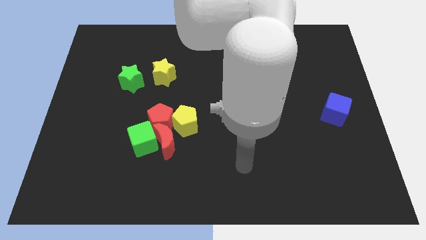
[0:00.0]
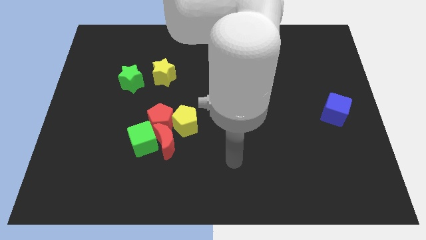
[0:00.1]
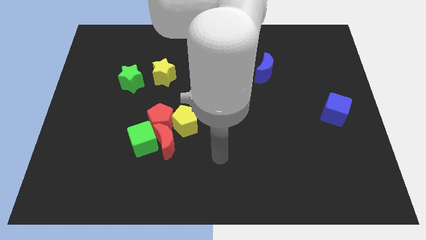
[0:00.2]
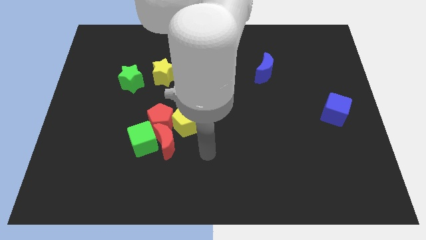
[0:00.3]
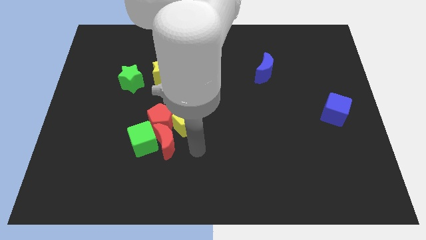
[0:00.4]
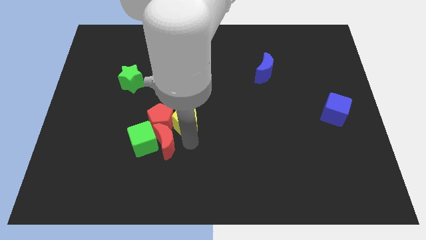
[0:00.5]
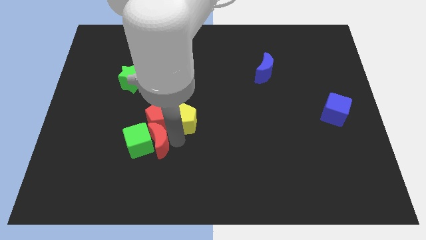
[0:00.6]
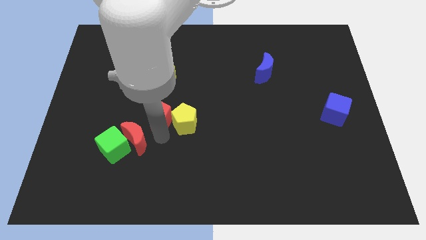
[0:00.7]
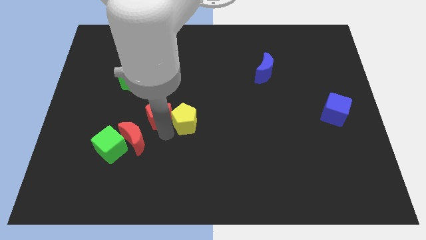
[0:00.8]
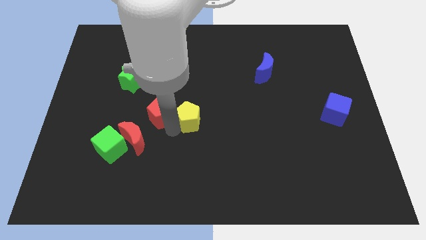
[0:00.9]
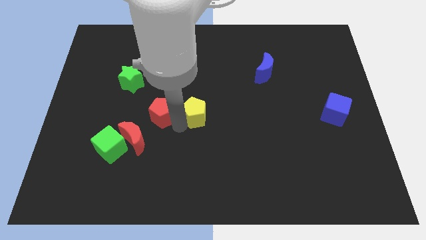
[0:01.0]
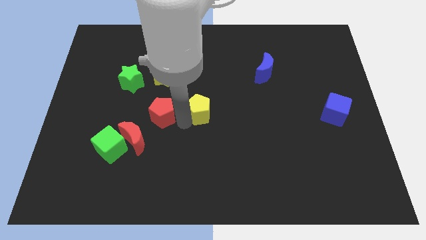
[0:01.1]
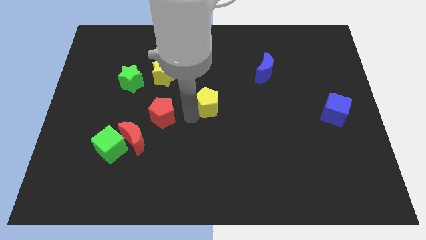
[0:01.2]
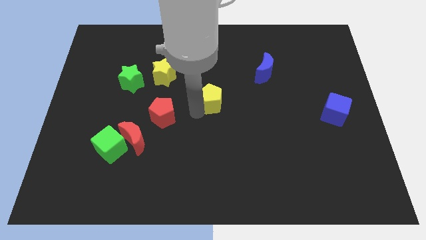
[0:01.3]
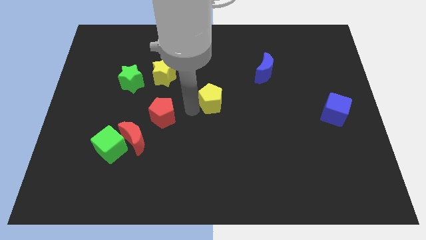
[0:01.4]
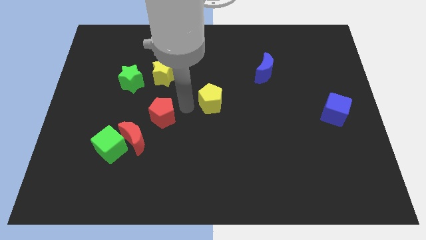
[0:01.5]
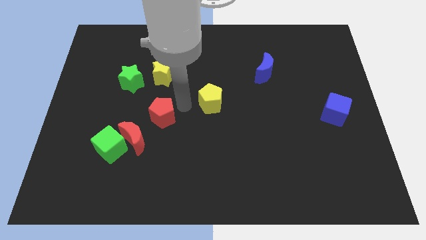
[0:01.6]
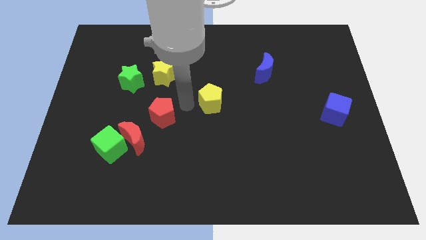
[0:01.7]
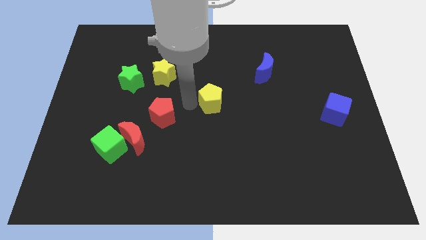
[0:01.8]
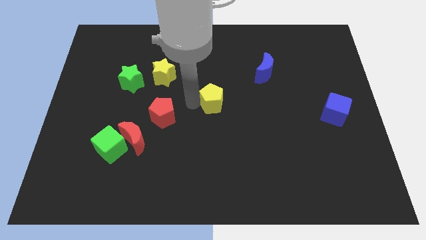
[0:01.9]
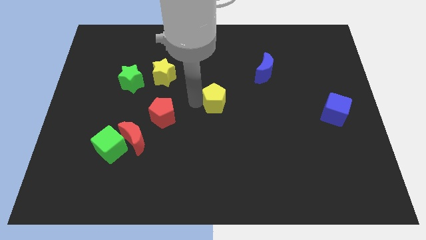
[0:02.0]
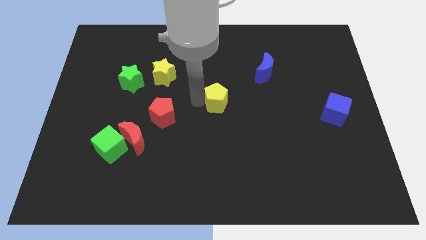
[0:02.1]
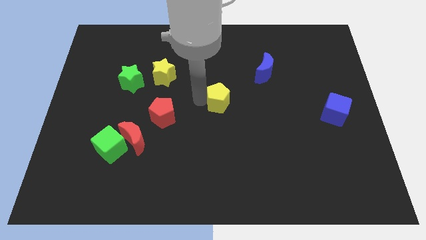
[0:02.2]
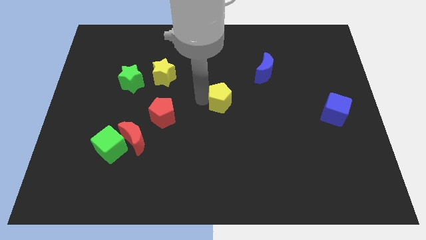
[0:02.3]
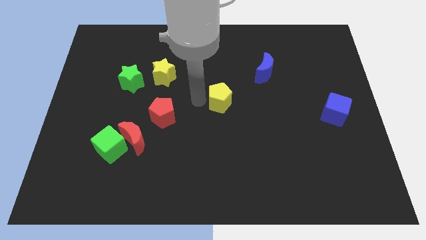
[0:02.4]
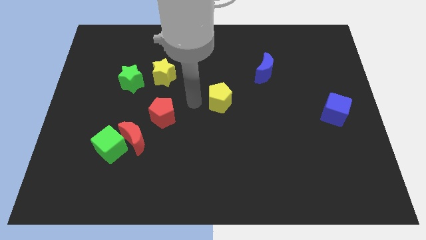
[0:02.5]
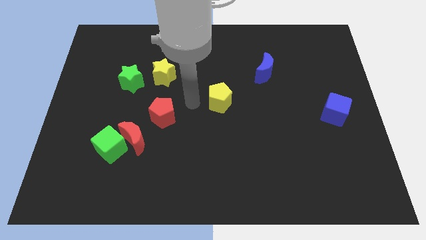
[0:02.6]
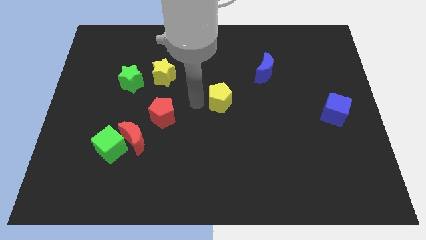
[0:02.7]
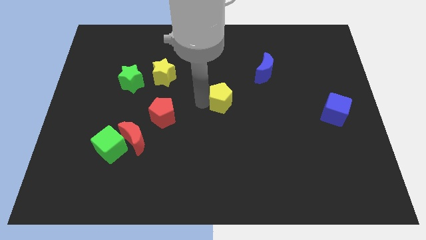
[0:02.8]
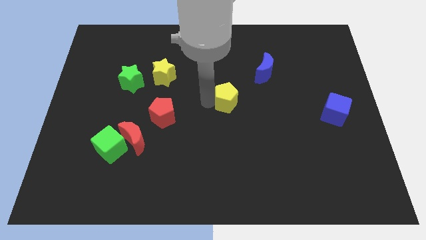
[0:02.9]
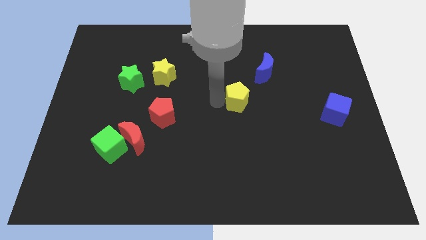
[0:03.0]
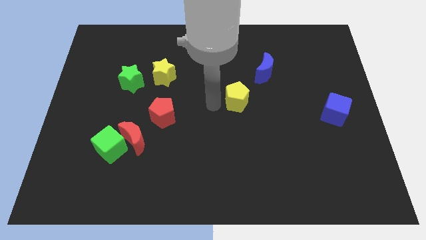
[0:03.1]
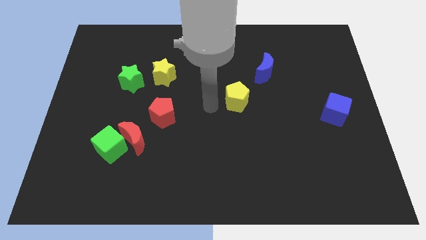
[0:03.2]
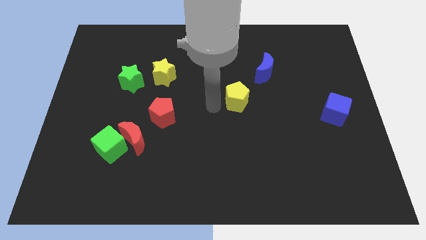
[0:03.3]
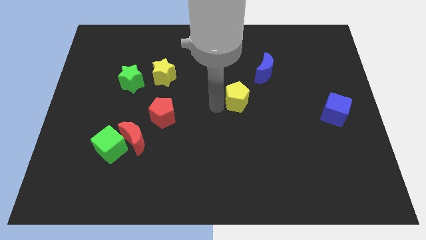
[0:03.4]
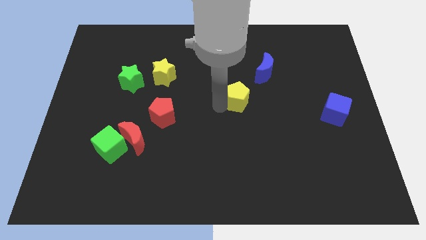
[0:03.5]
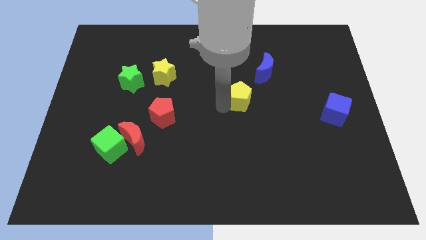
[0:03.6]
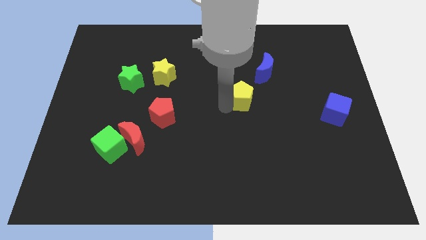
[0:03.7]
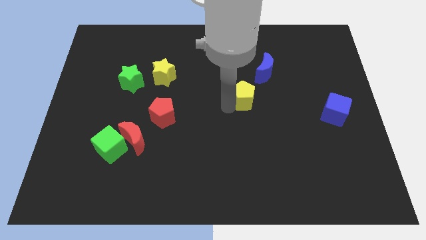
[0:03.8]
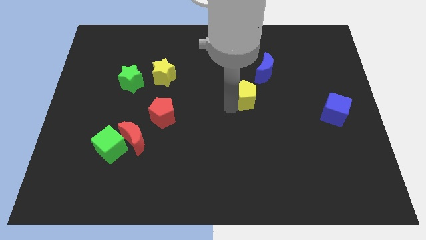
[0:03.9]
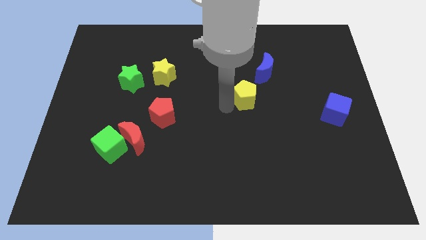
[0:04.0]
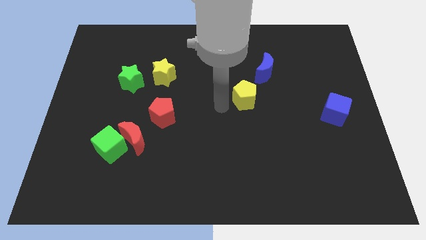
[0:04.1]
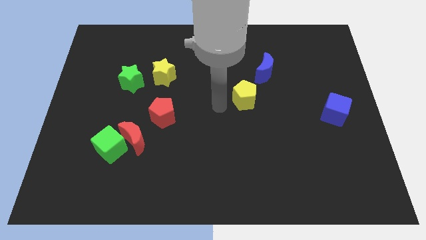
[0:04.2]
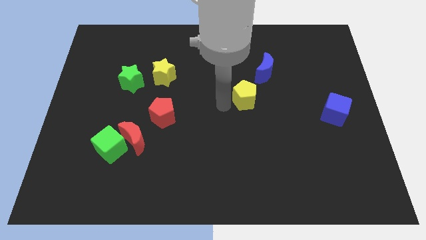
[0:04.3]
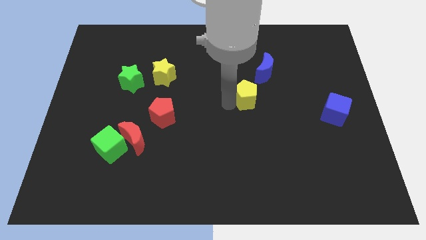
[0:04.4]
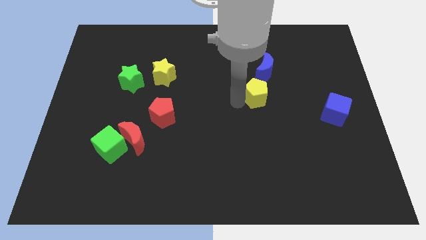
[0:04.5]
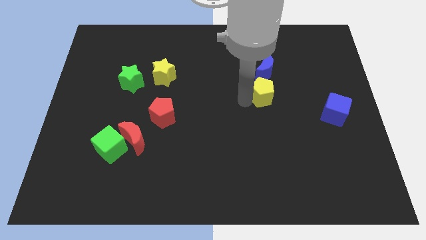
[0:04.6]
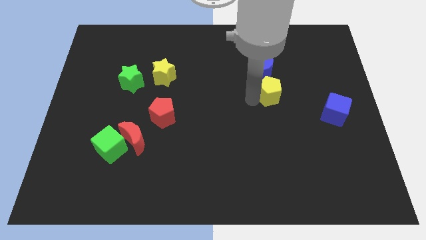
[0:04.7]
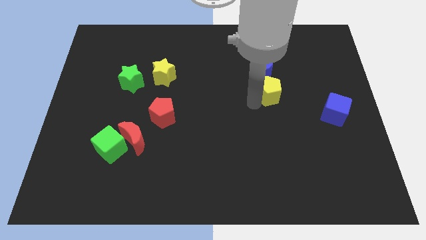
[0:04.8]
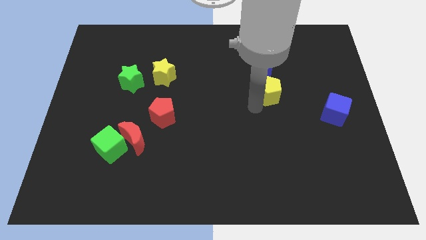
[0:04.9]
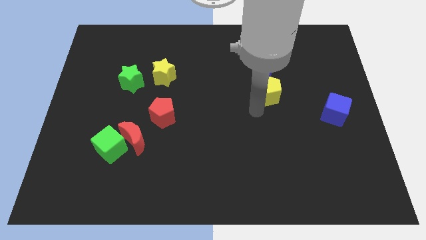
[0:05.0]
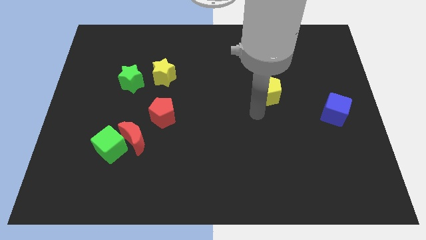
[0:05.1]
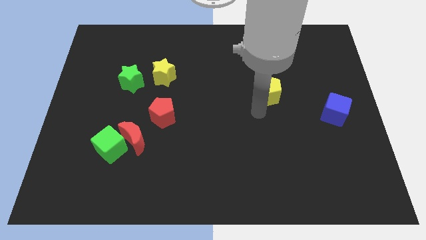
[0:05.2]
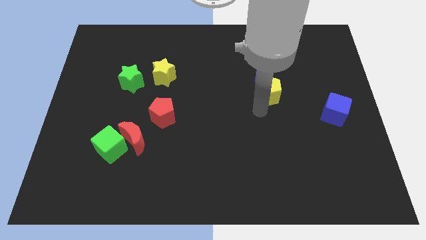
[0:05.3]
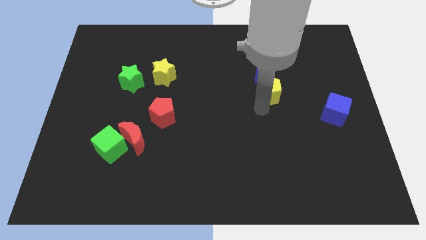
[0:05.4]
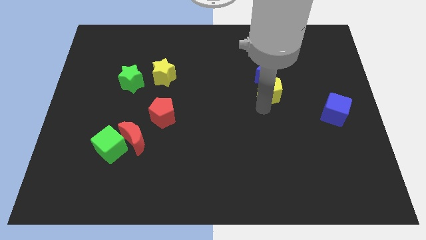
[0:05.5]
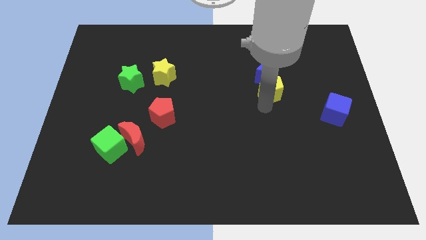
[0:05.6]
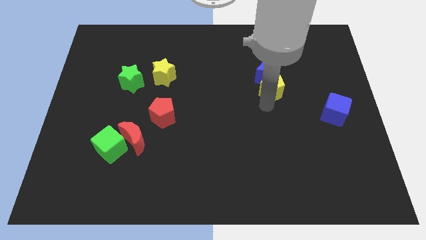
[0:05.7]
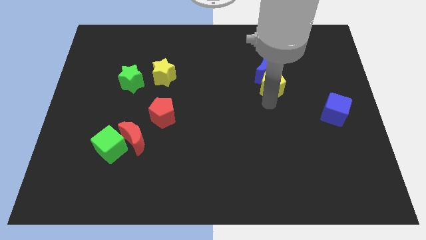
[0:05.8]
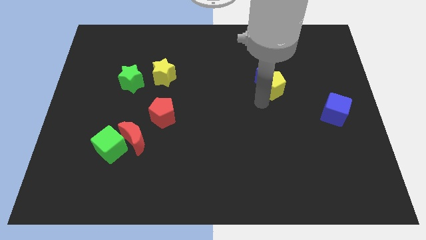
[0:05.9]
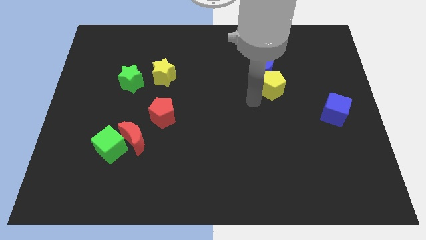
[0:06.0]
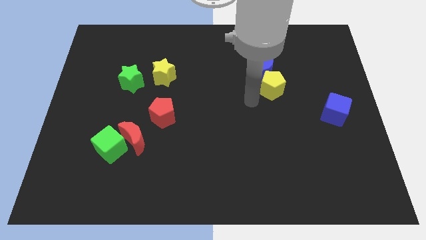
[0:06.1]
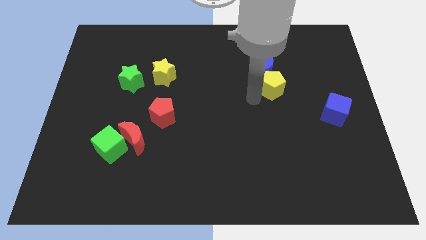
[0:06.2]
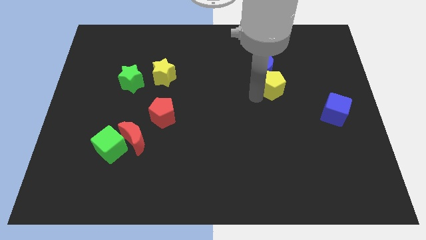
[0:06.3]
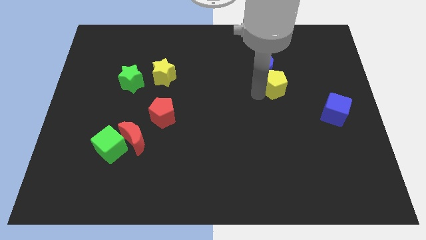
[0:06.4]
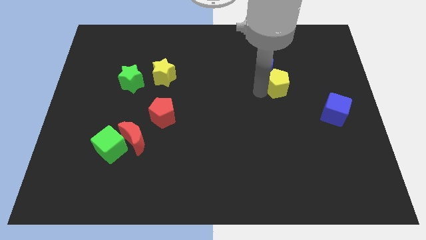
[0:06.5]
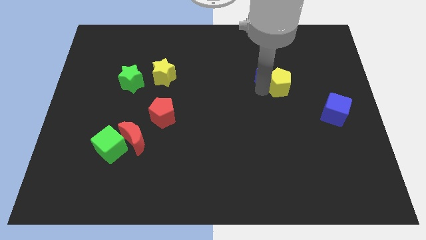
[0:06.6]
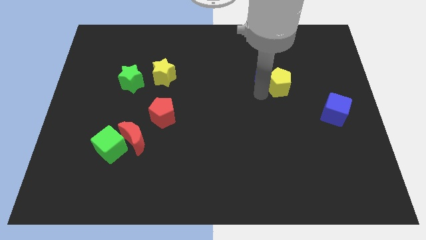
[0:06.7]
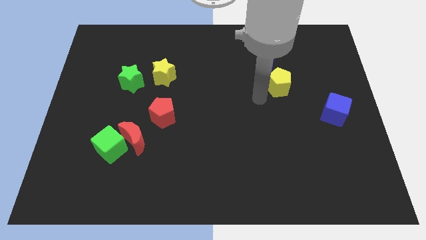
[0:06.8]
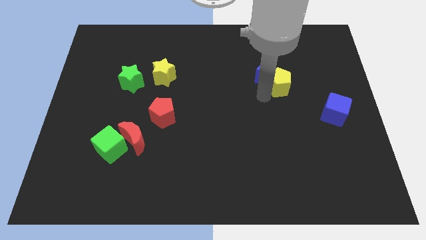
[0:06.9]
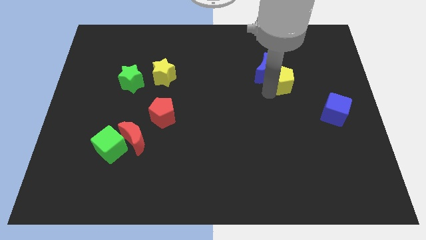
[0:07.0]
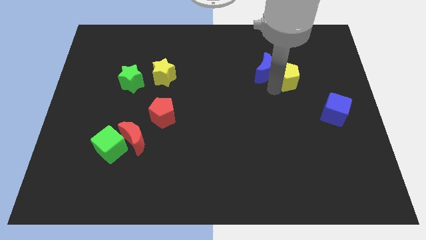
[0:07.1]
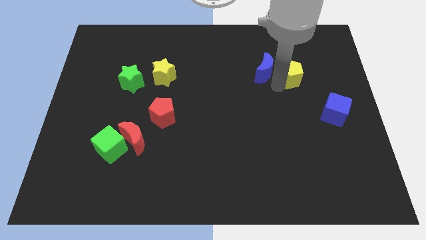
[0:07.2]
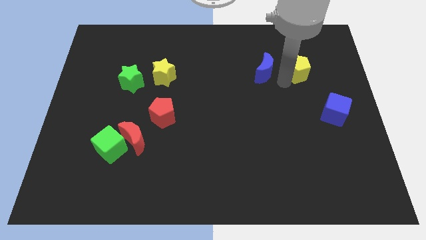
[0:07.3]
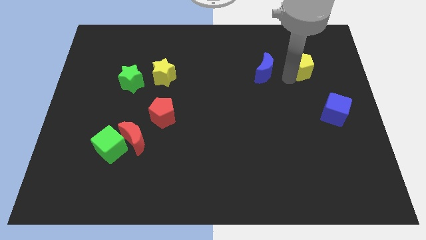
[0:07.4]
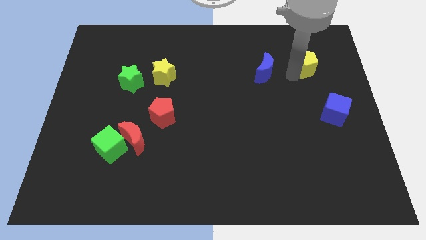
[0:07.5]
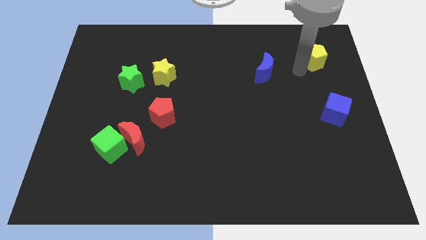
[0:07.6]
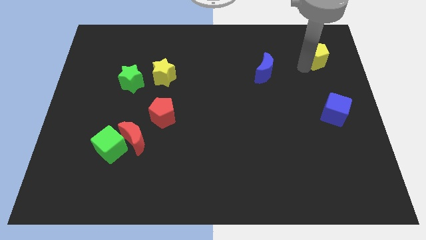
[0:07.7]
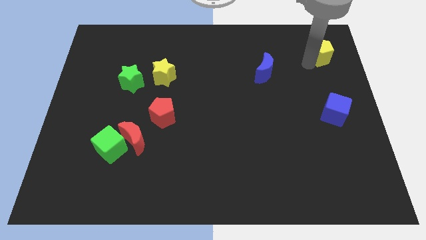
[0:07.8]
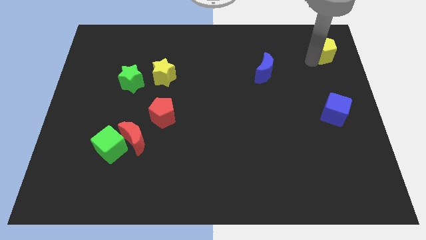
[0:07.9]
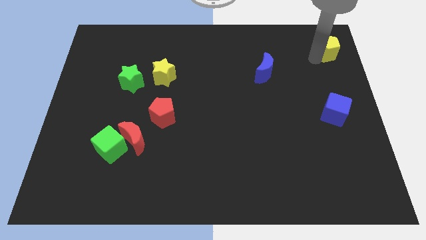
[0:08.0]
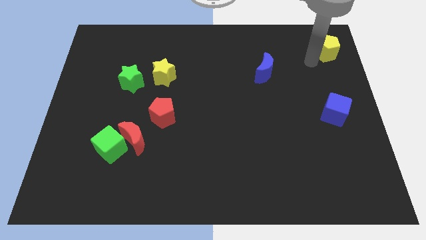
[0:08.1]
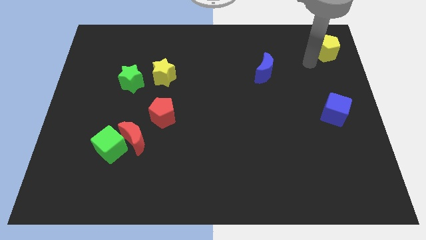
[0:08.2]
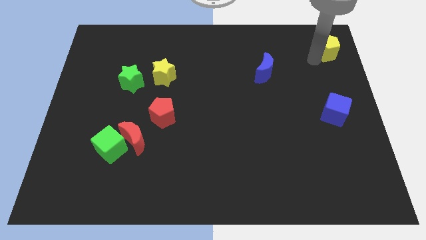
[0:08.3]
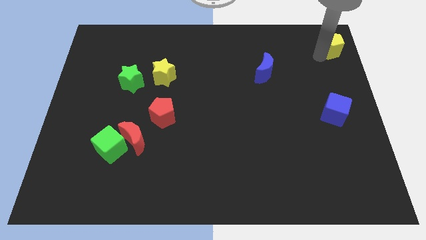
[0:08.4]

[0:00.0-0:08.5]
push the yellow pentagon to the top right
